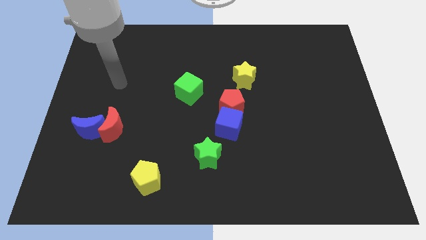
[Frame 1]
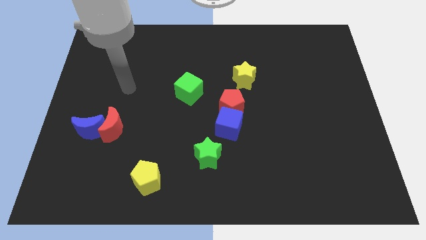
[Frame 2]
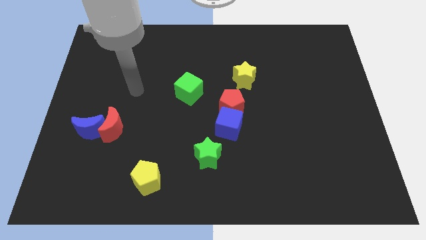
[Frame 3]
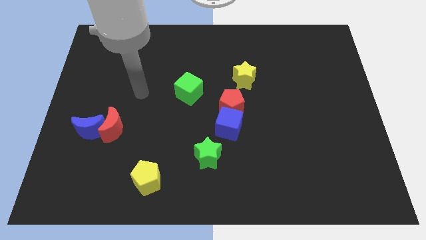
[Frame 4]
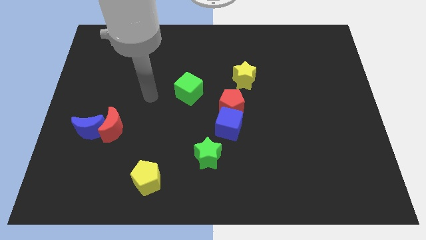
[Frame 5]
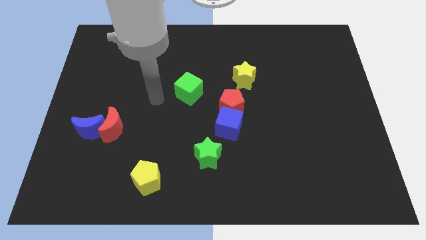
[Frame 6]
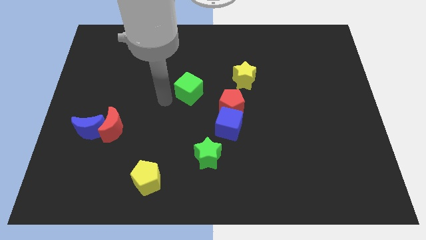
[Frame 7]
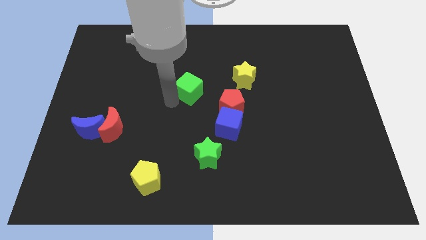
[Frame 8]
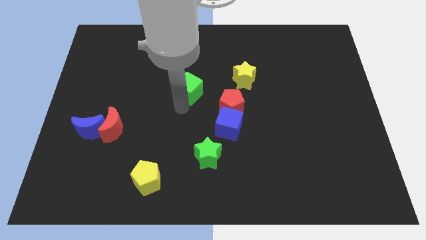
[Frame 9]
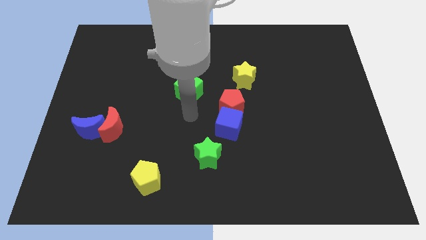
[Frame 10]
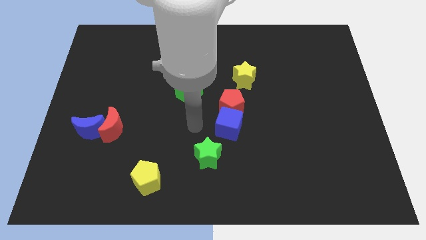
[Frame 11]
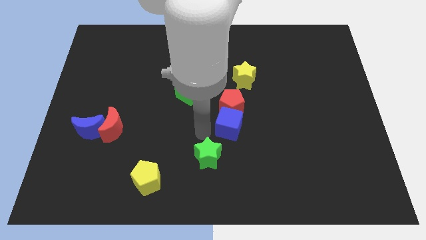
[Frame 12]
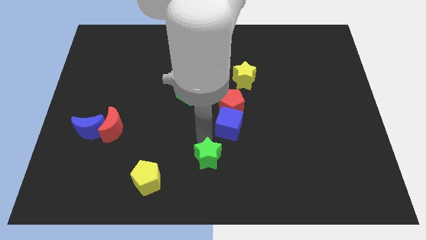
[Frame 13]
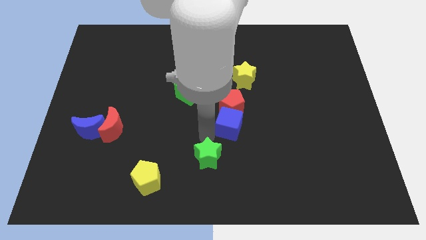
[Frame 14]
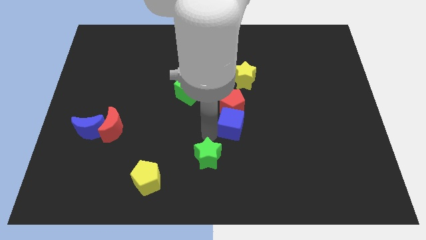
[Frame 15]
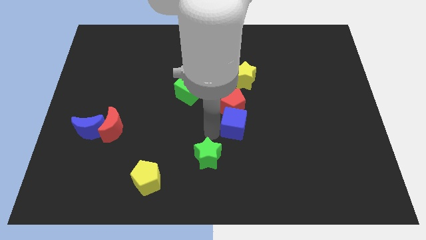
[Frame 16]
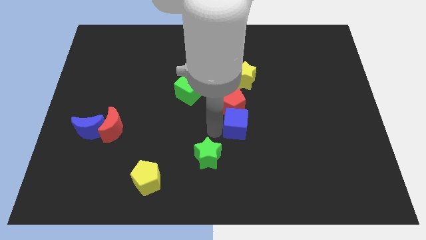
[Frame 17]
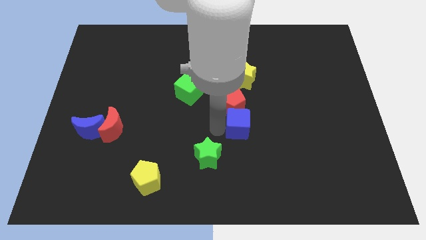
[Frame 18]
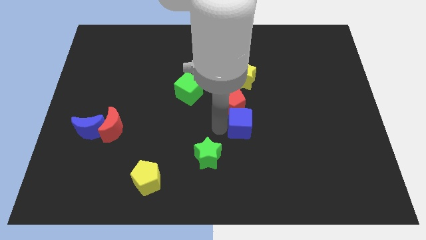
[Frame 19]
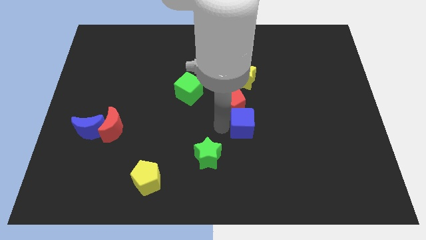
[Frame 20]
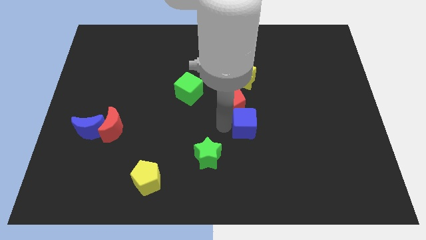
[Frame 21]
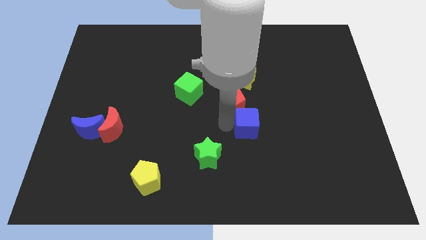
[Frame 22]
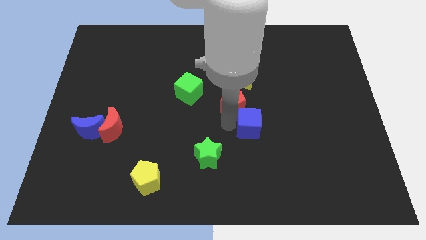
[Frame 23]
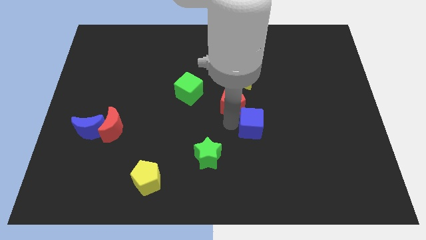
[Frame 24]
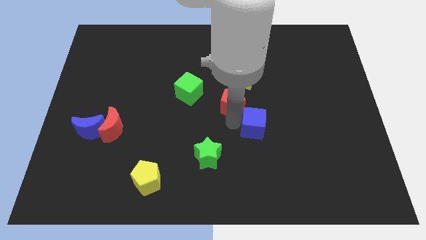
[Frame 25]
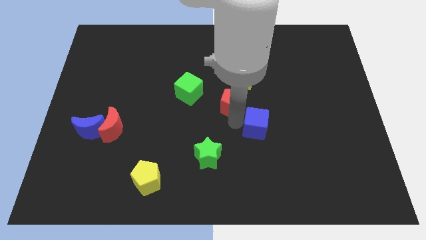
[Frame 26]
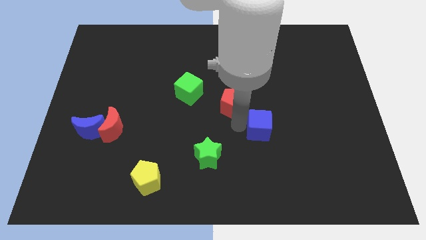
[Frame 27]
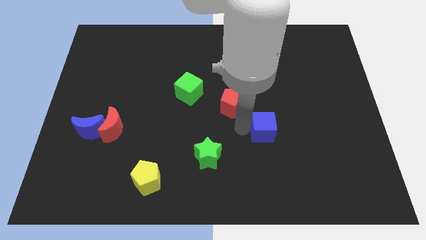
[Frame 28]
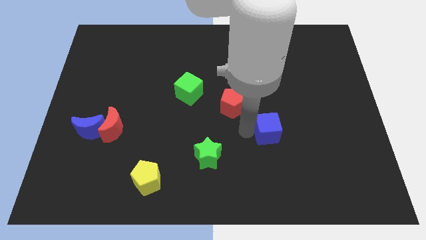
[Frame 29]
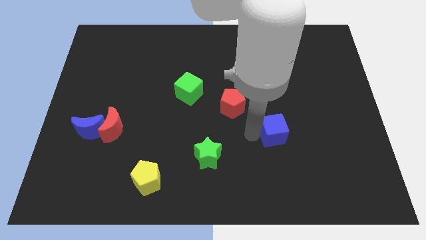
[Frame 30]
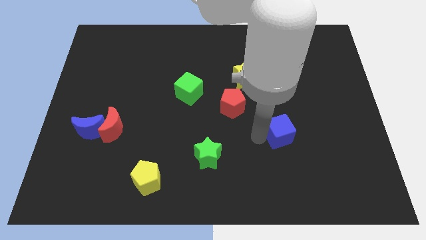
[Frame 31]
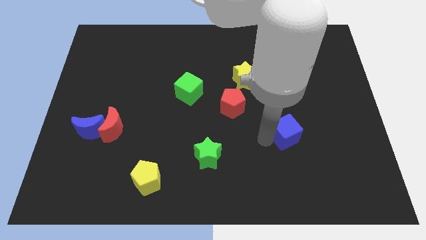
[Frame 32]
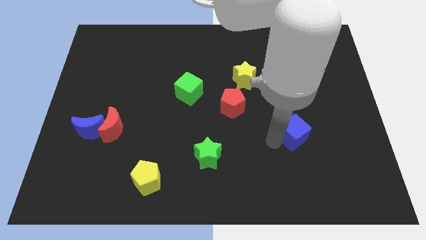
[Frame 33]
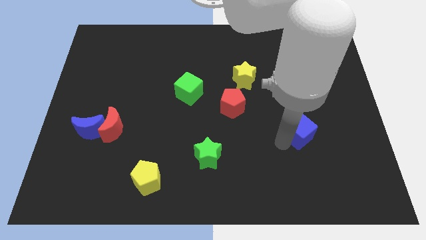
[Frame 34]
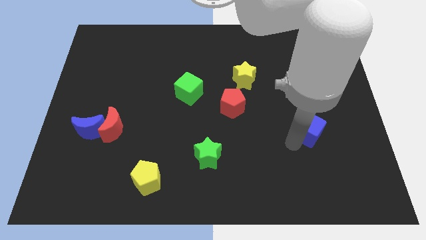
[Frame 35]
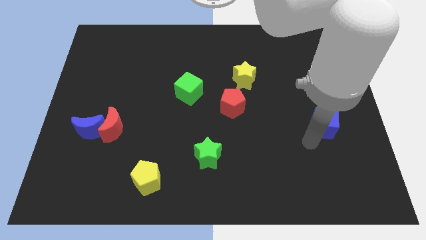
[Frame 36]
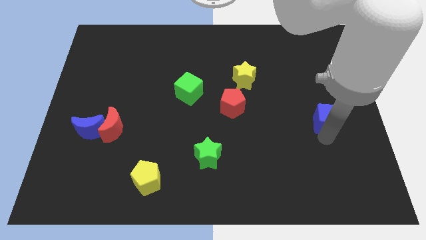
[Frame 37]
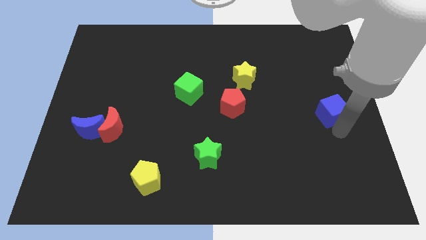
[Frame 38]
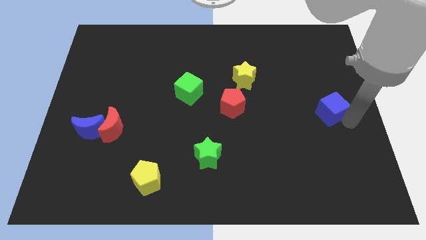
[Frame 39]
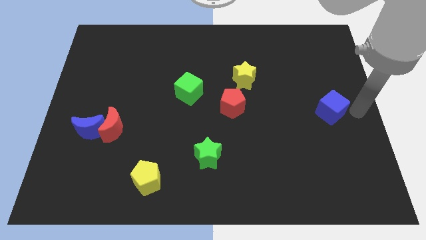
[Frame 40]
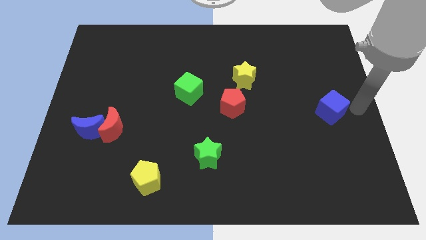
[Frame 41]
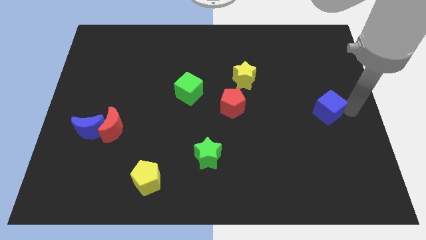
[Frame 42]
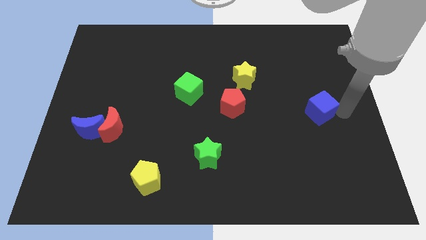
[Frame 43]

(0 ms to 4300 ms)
slightly slide the blue cube upwards and to the right diagonally

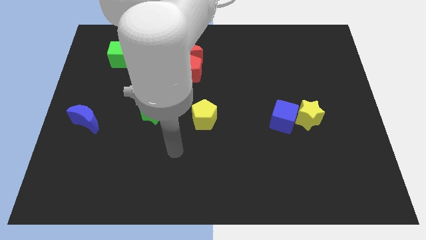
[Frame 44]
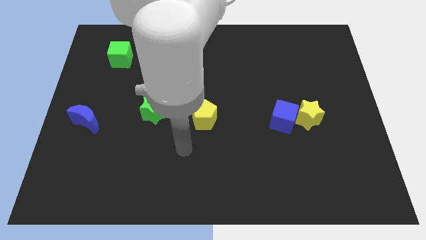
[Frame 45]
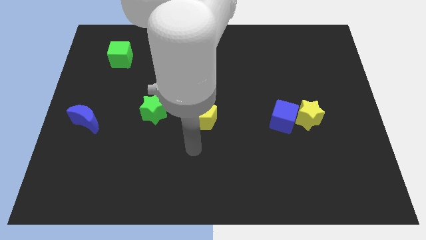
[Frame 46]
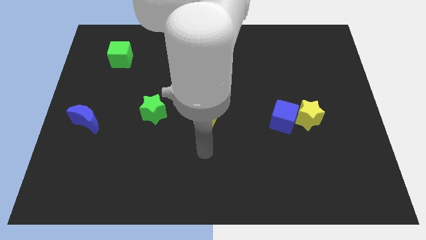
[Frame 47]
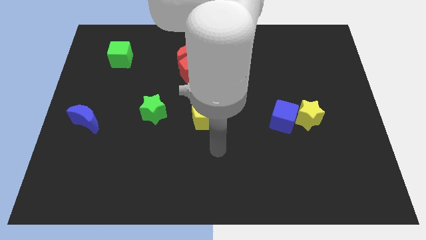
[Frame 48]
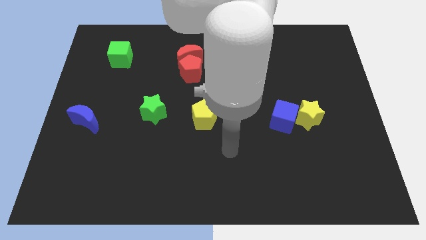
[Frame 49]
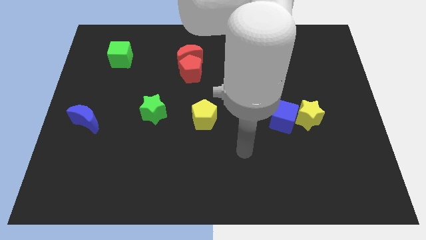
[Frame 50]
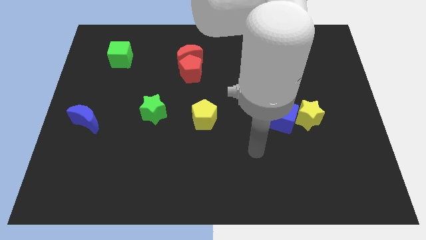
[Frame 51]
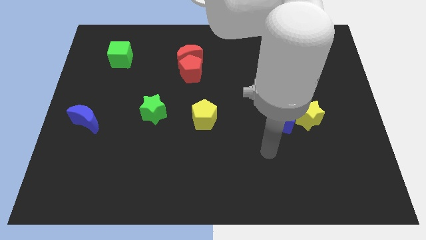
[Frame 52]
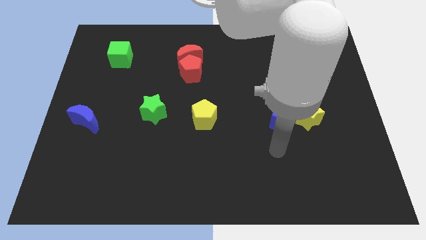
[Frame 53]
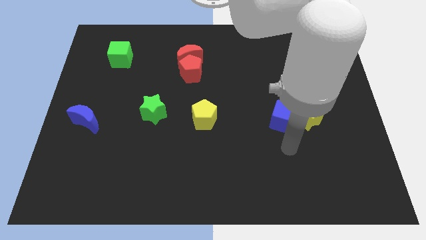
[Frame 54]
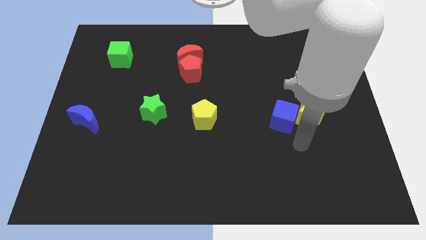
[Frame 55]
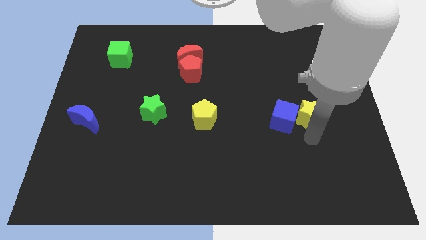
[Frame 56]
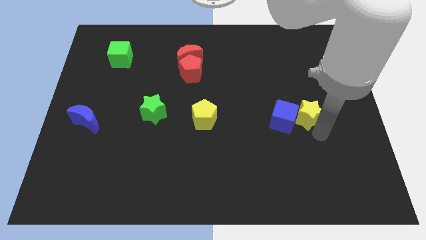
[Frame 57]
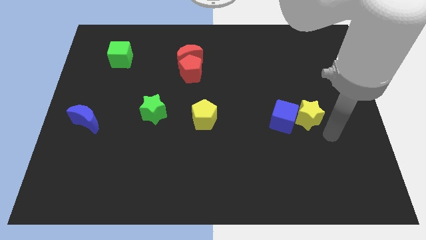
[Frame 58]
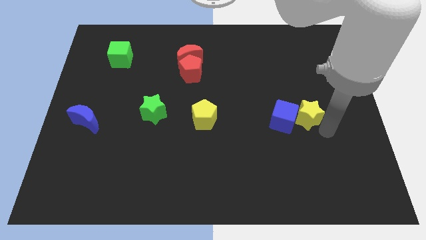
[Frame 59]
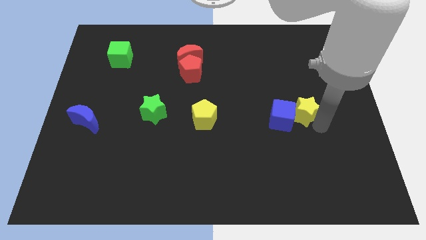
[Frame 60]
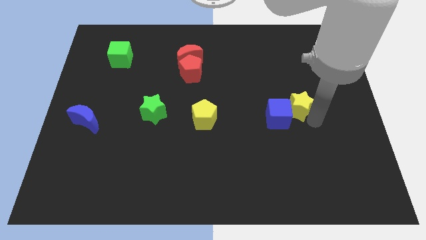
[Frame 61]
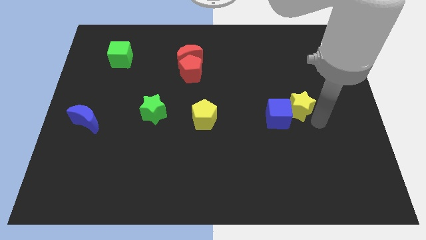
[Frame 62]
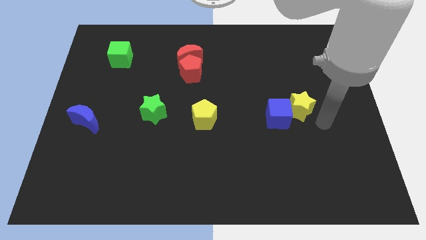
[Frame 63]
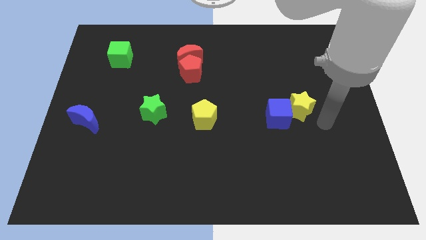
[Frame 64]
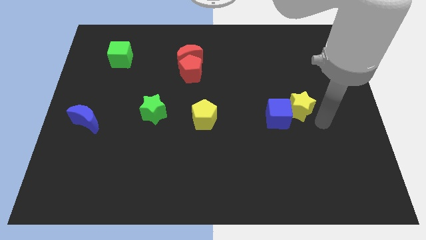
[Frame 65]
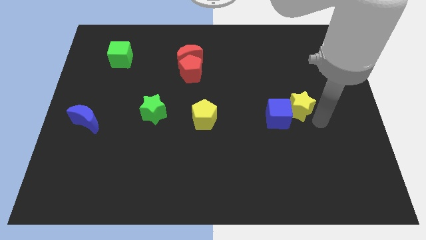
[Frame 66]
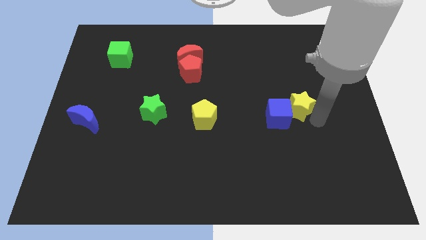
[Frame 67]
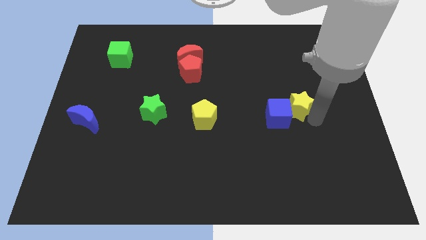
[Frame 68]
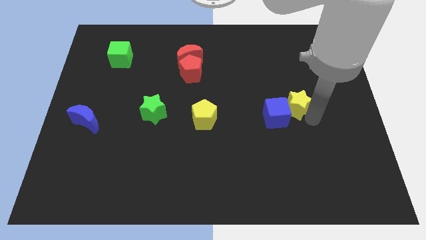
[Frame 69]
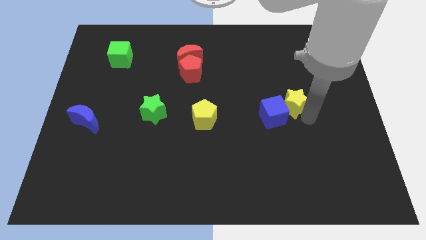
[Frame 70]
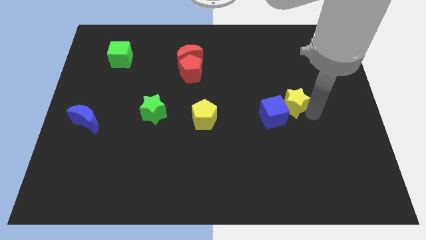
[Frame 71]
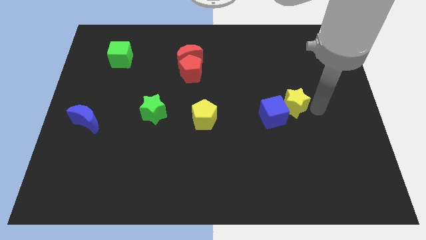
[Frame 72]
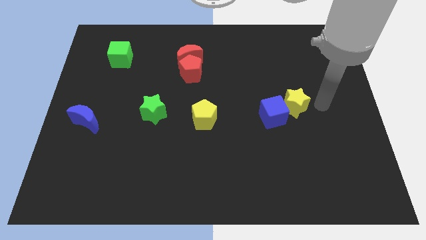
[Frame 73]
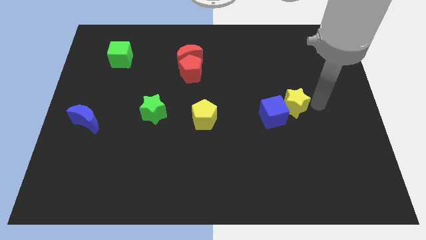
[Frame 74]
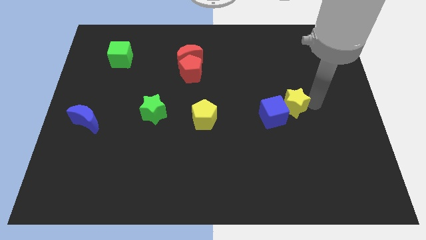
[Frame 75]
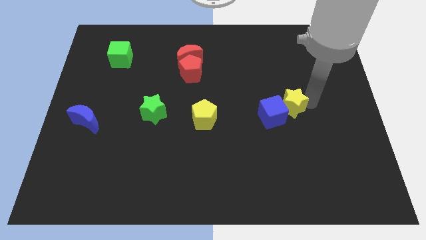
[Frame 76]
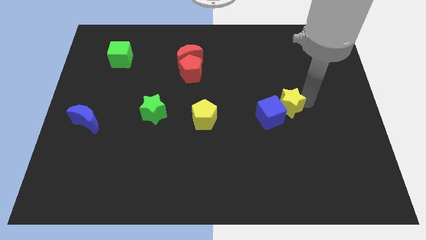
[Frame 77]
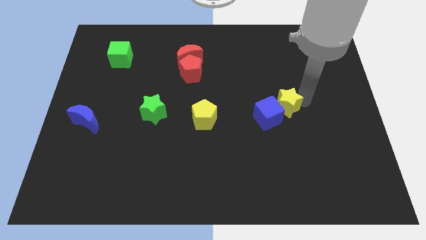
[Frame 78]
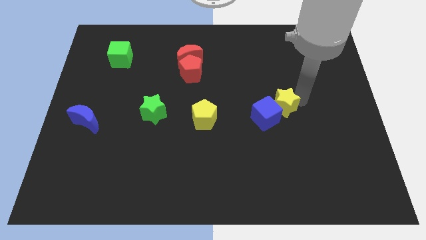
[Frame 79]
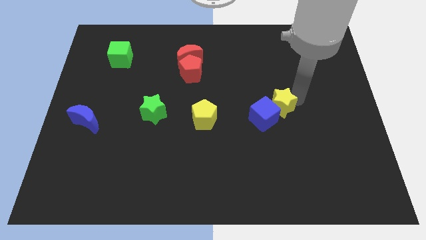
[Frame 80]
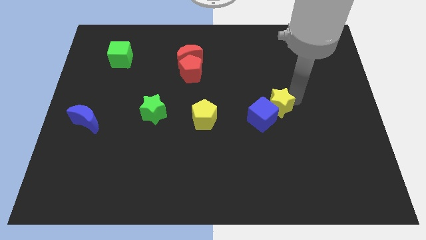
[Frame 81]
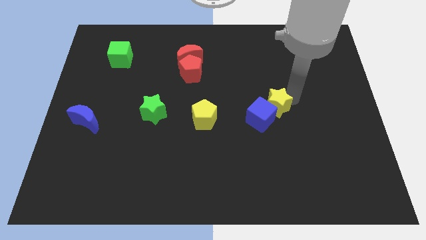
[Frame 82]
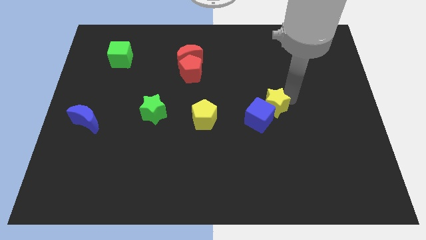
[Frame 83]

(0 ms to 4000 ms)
move the yellow star slightly left
